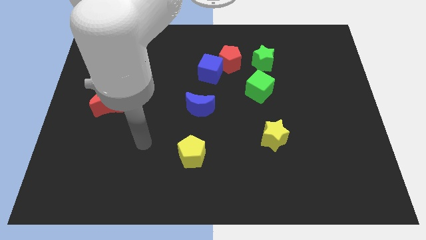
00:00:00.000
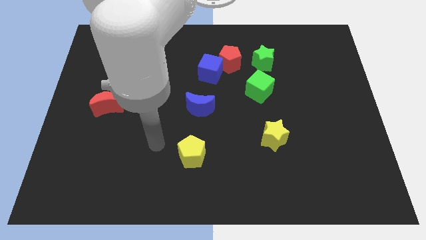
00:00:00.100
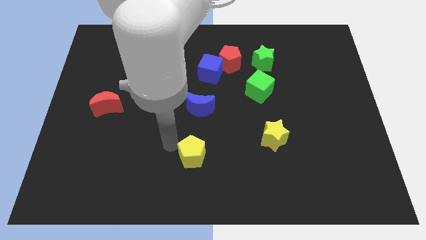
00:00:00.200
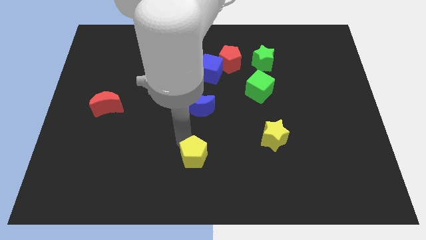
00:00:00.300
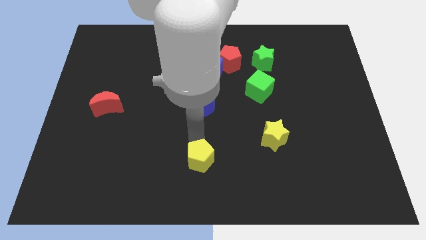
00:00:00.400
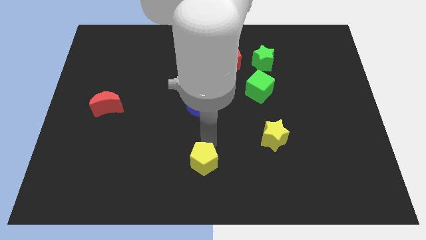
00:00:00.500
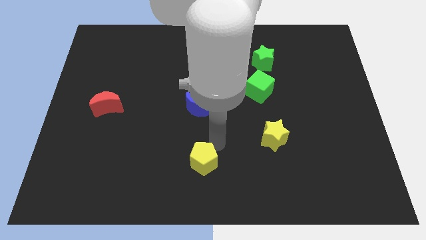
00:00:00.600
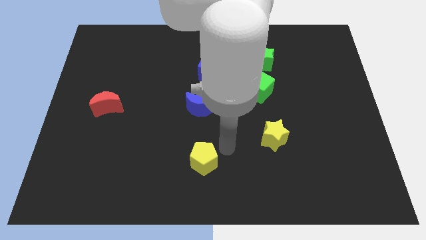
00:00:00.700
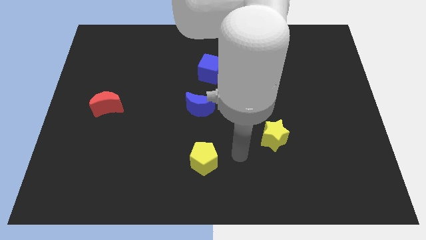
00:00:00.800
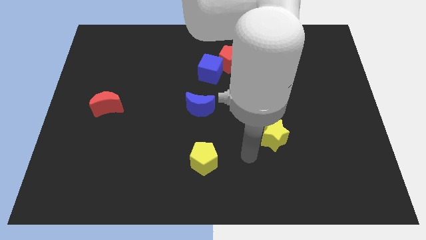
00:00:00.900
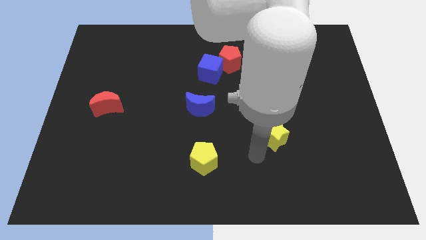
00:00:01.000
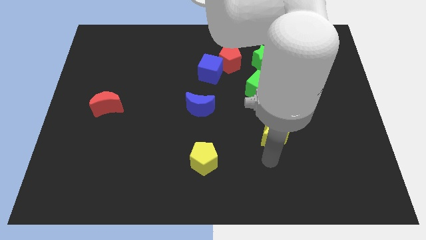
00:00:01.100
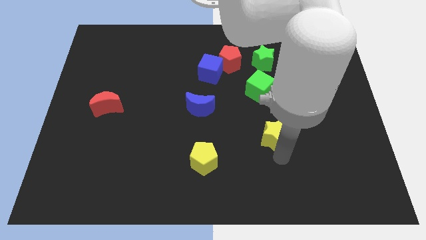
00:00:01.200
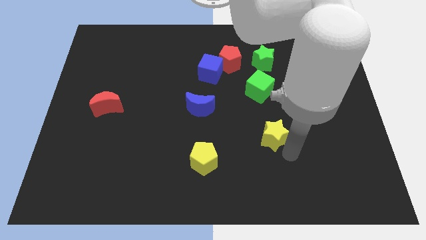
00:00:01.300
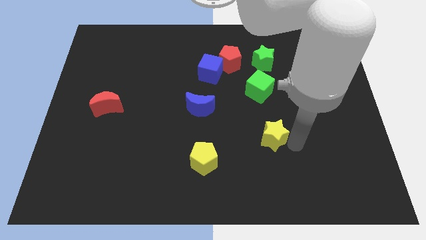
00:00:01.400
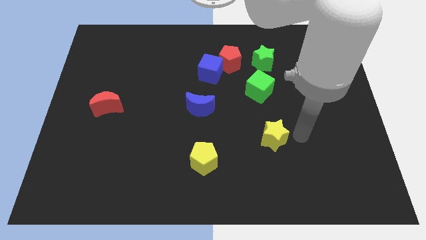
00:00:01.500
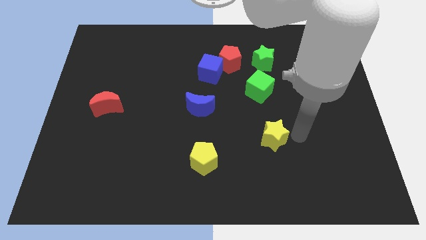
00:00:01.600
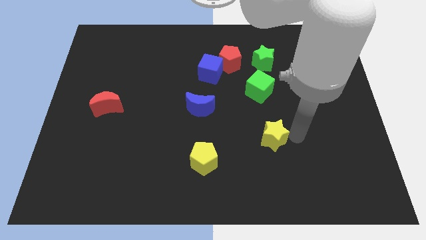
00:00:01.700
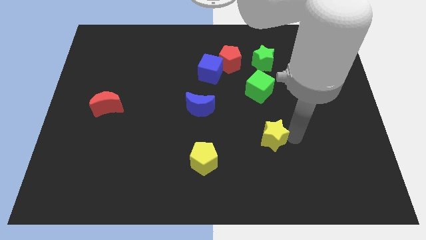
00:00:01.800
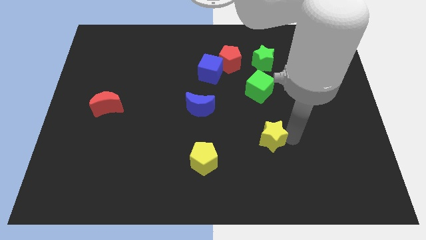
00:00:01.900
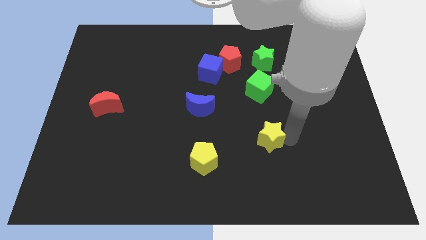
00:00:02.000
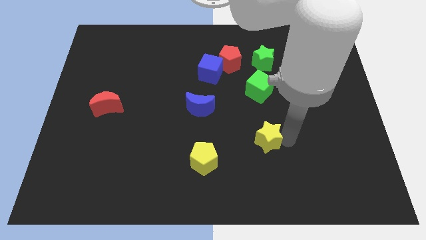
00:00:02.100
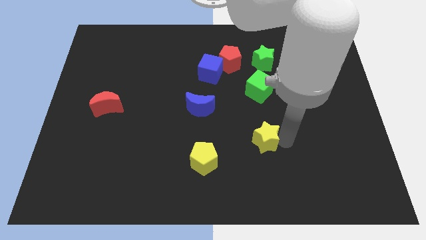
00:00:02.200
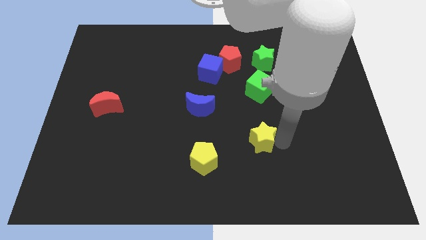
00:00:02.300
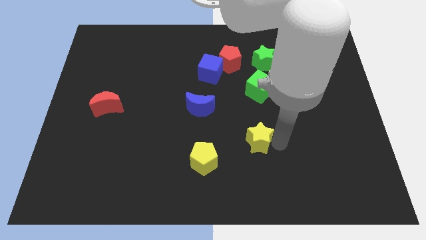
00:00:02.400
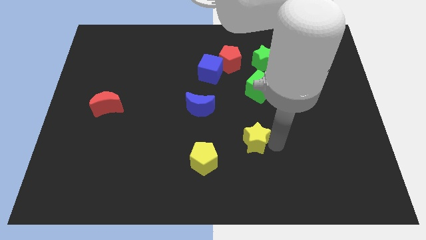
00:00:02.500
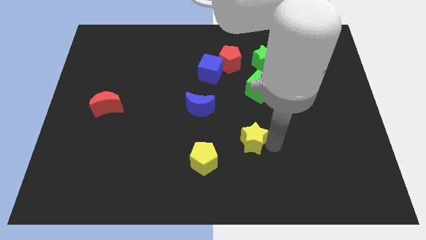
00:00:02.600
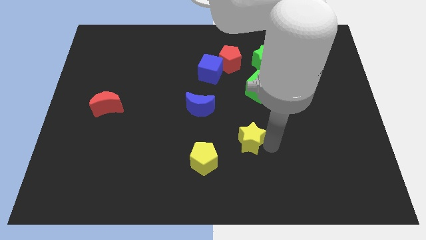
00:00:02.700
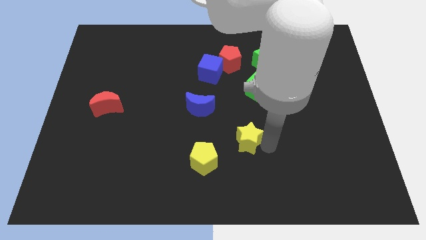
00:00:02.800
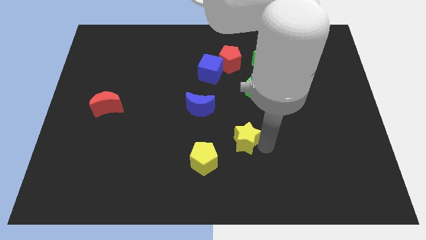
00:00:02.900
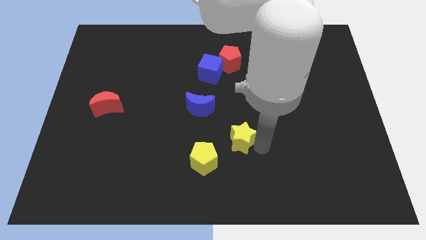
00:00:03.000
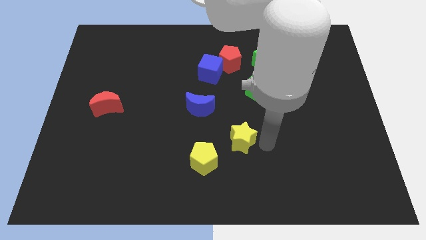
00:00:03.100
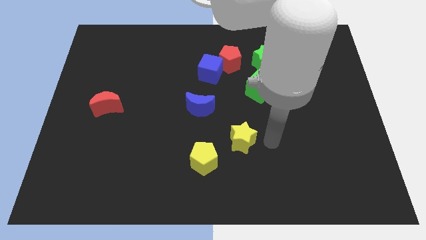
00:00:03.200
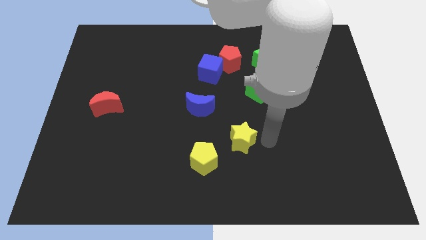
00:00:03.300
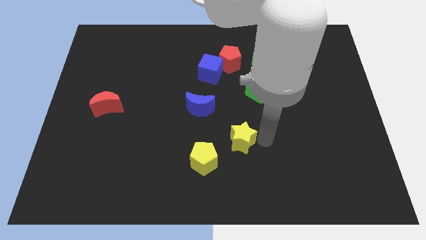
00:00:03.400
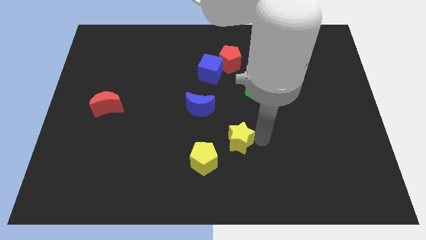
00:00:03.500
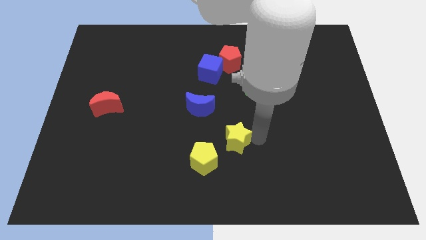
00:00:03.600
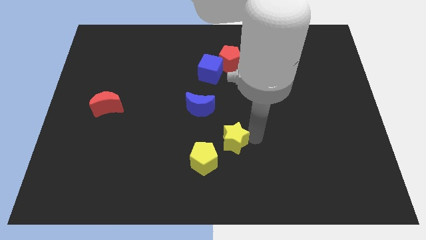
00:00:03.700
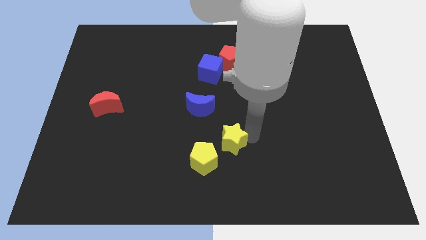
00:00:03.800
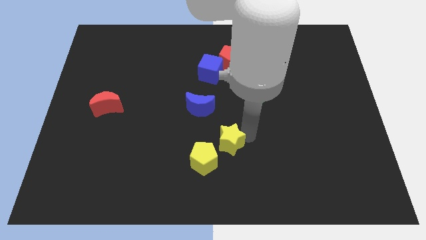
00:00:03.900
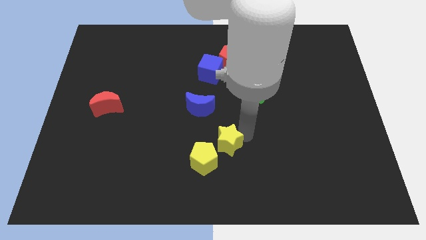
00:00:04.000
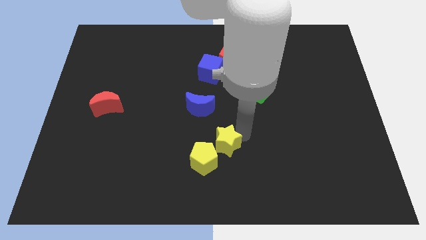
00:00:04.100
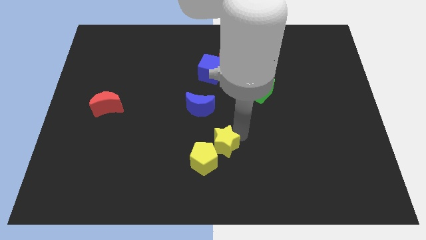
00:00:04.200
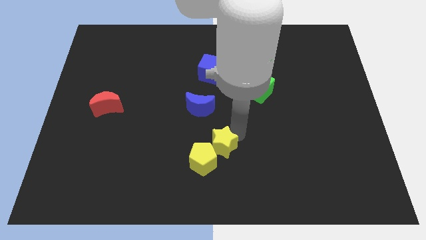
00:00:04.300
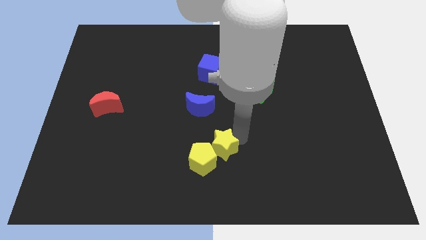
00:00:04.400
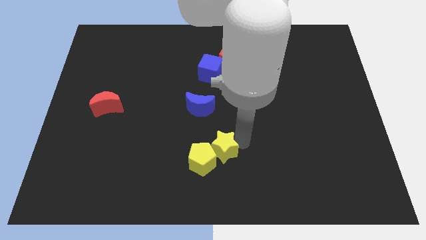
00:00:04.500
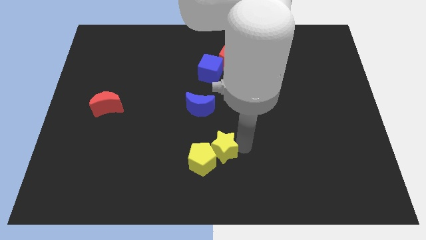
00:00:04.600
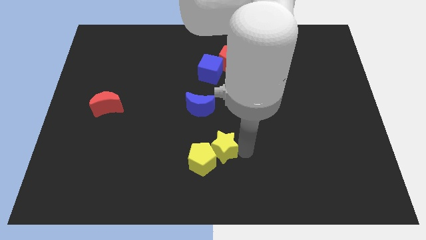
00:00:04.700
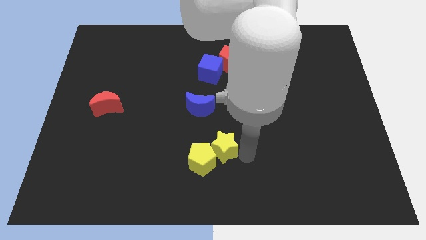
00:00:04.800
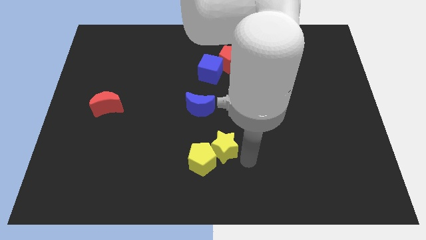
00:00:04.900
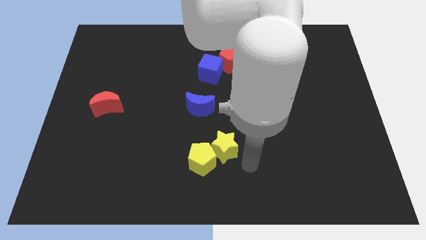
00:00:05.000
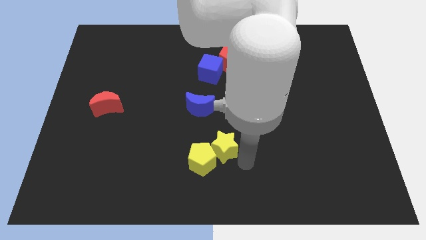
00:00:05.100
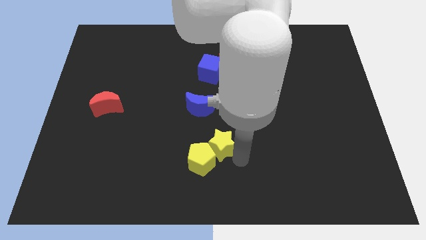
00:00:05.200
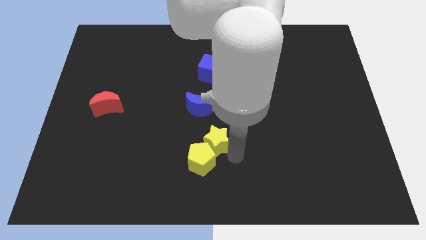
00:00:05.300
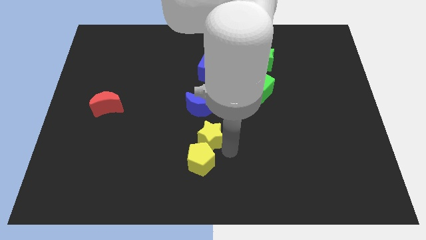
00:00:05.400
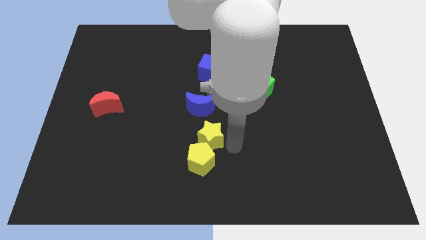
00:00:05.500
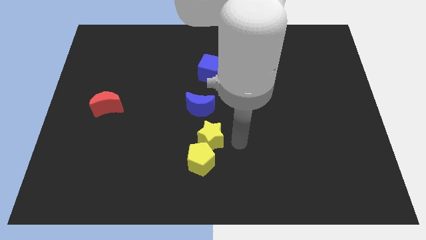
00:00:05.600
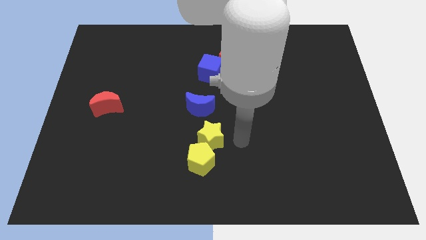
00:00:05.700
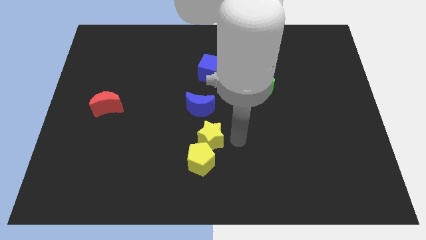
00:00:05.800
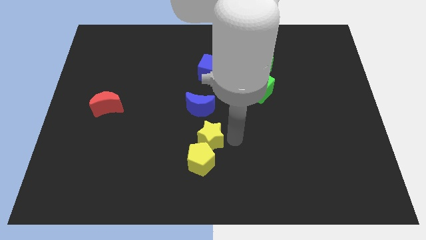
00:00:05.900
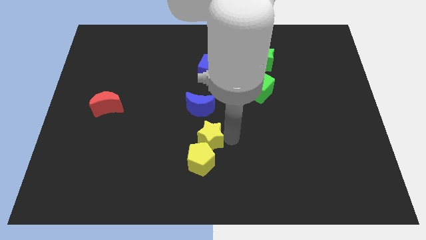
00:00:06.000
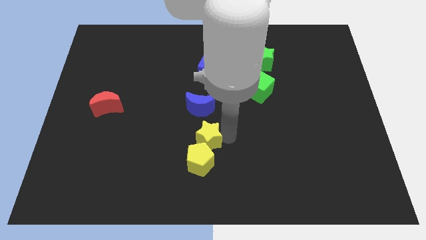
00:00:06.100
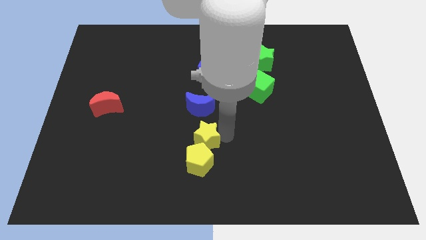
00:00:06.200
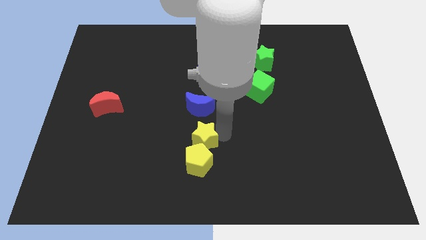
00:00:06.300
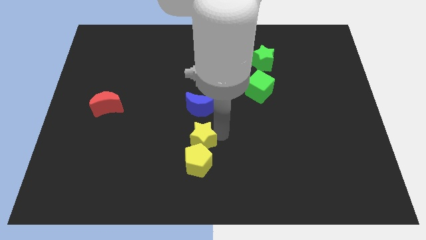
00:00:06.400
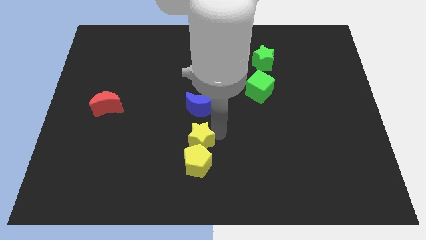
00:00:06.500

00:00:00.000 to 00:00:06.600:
put the yellow star to the top left side of the yellow pentagon
